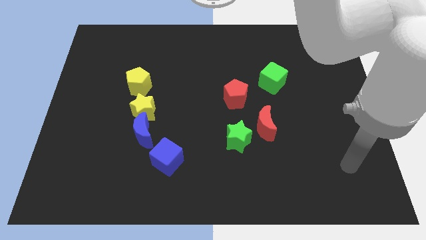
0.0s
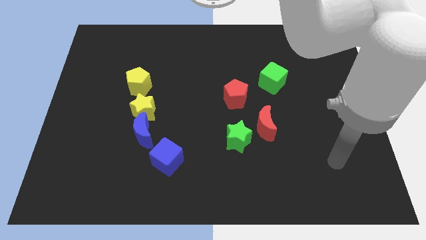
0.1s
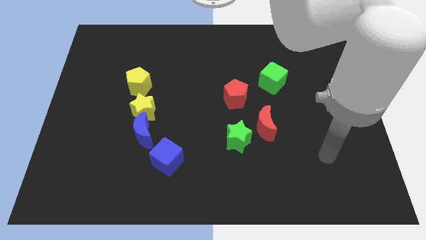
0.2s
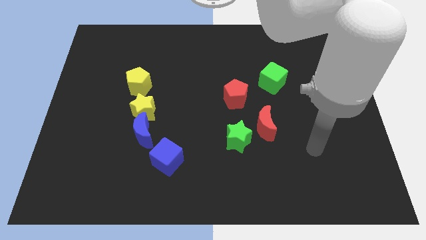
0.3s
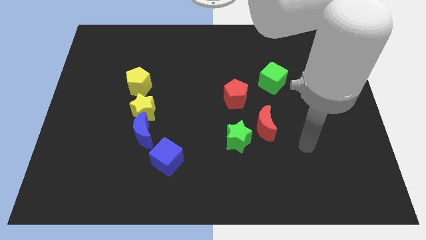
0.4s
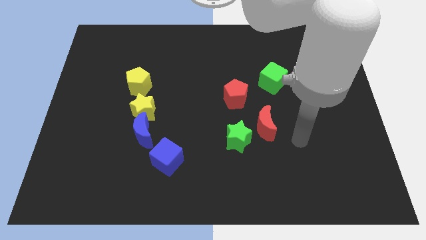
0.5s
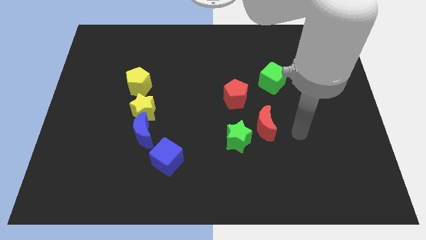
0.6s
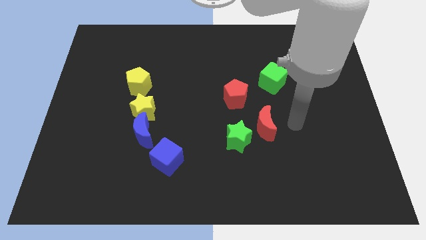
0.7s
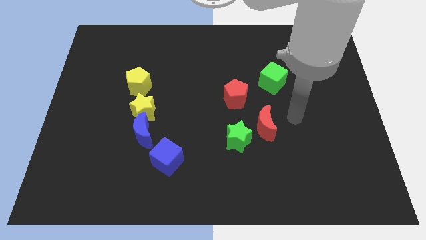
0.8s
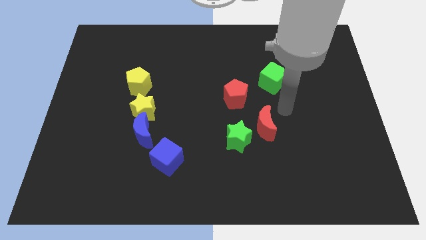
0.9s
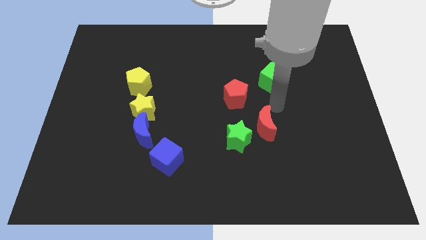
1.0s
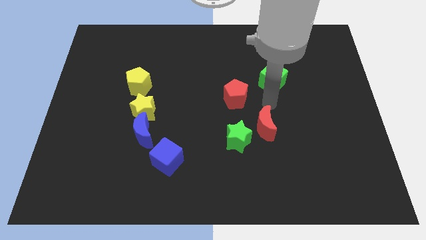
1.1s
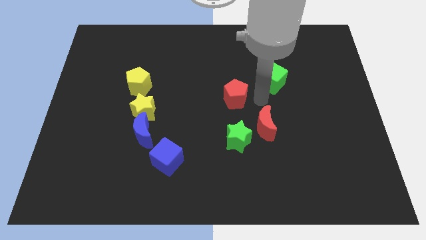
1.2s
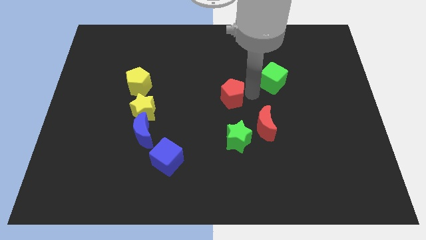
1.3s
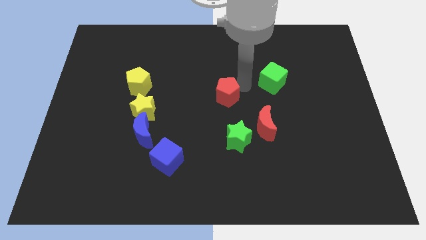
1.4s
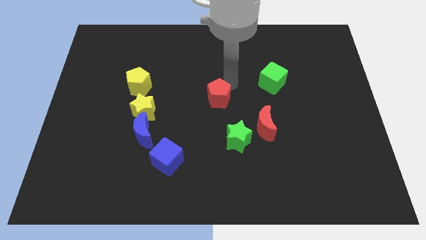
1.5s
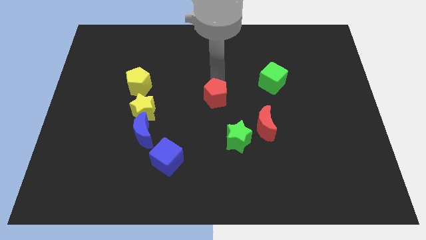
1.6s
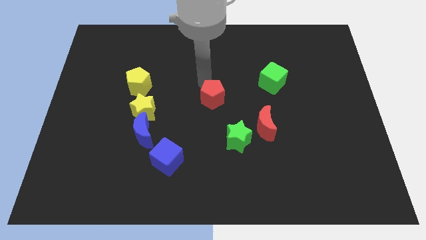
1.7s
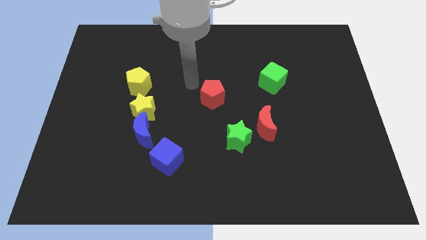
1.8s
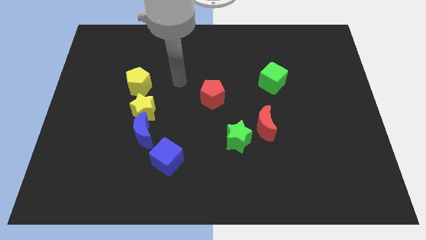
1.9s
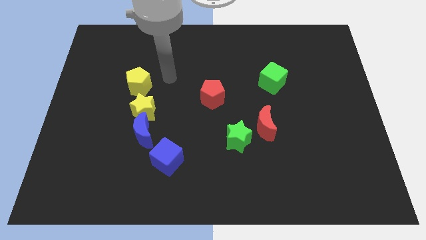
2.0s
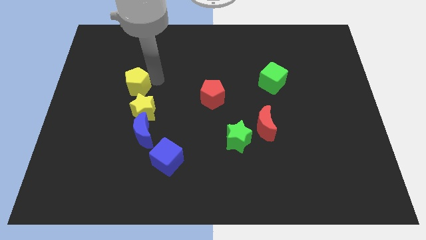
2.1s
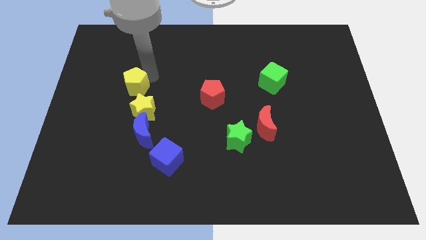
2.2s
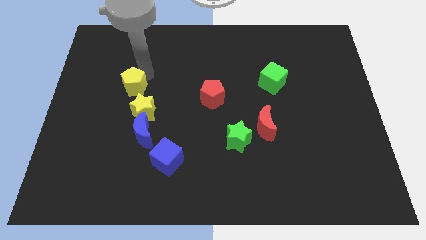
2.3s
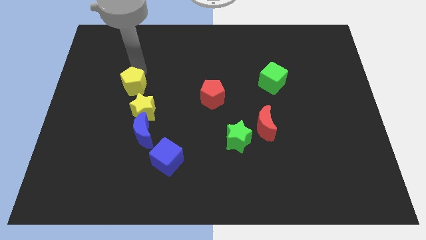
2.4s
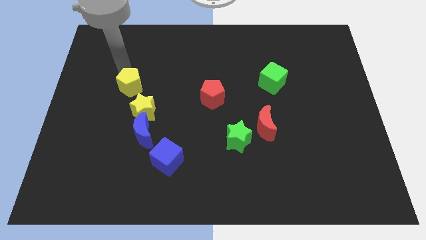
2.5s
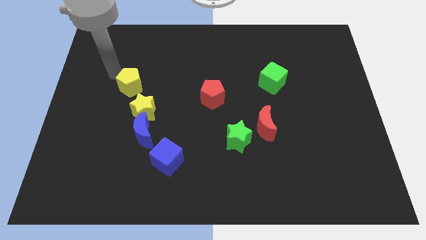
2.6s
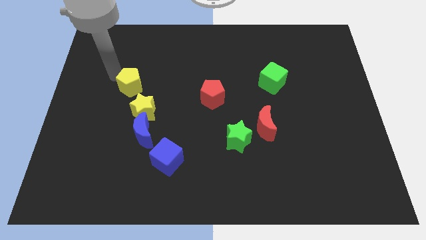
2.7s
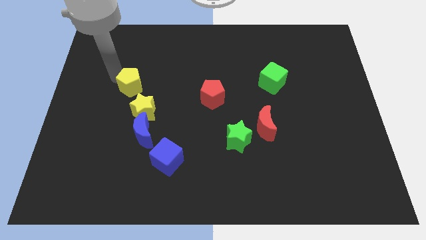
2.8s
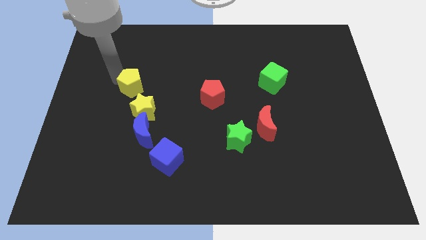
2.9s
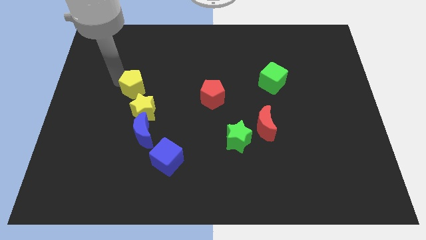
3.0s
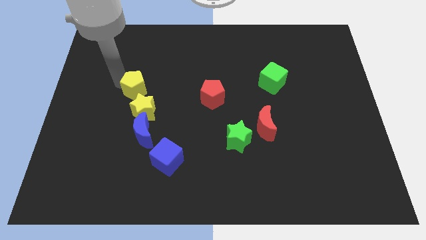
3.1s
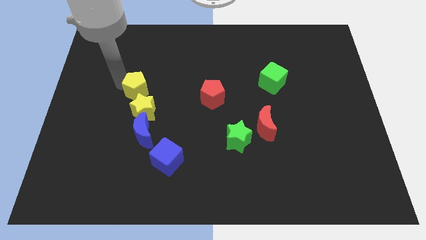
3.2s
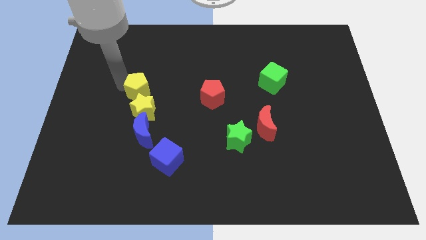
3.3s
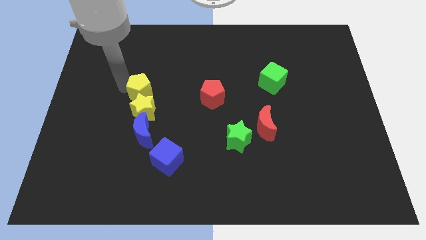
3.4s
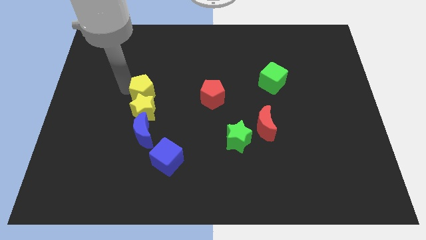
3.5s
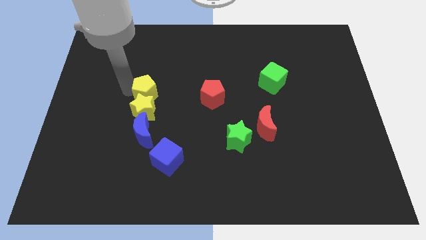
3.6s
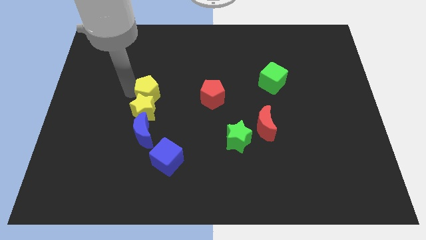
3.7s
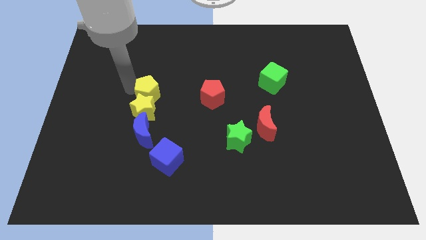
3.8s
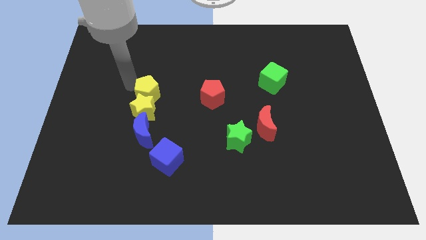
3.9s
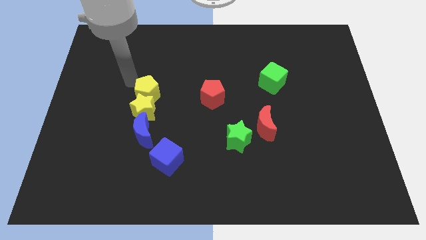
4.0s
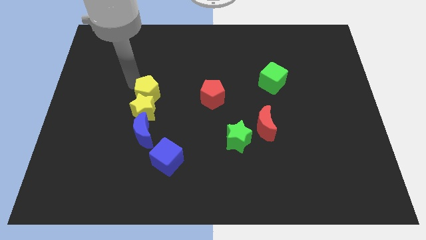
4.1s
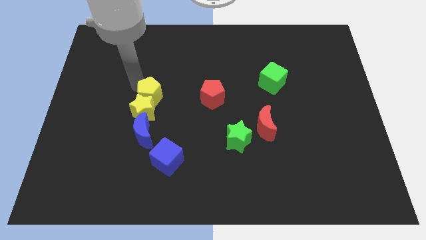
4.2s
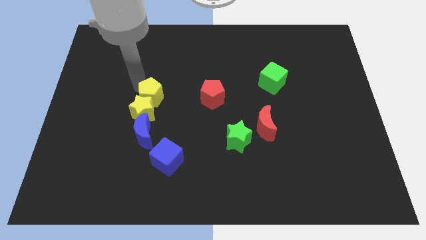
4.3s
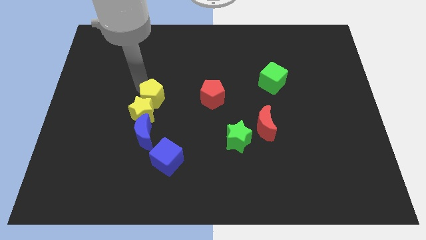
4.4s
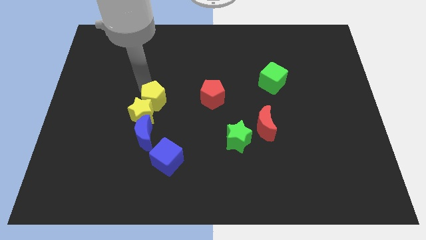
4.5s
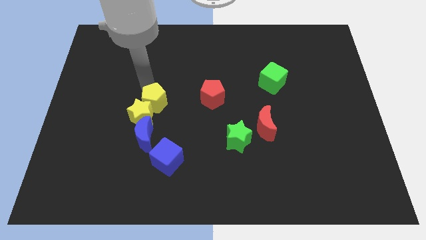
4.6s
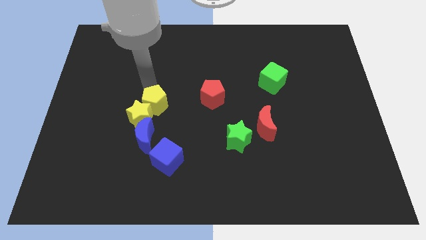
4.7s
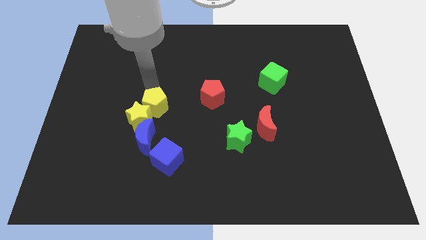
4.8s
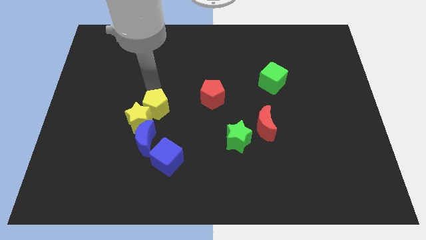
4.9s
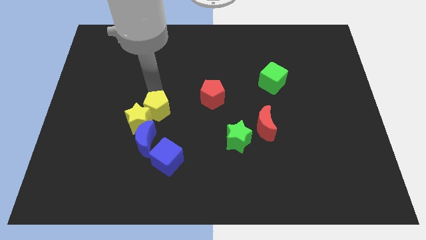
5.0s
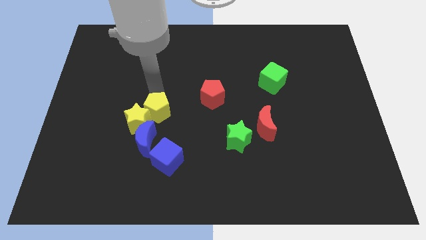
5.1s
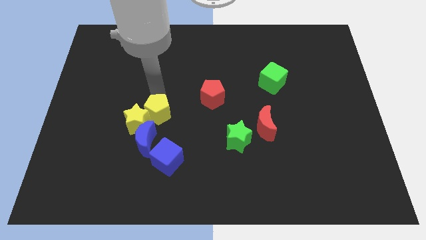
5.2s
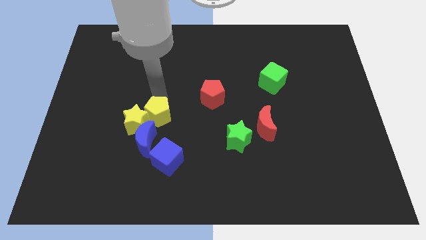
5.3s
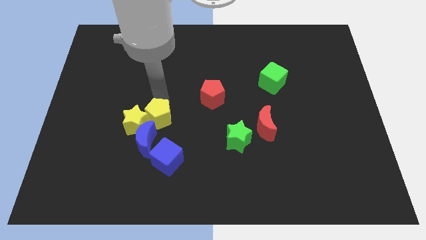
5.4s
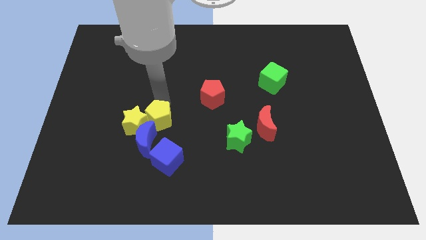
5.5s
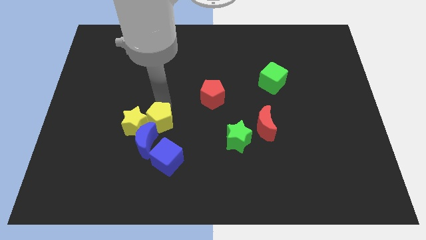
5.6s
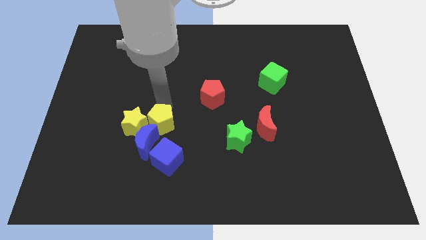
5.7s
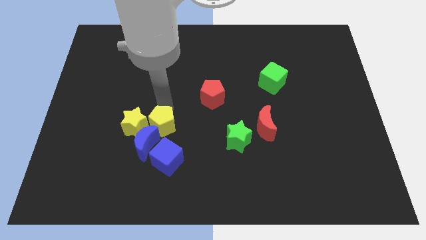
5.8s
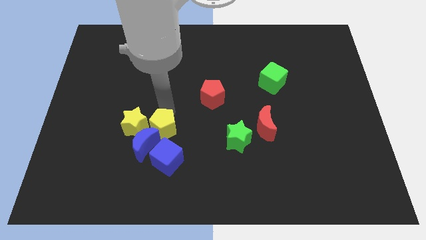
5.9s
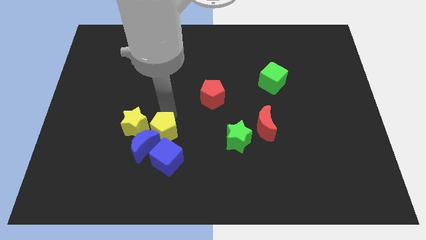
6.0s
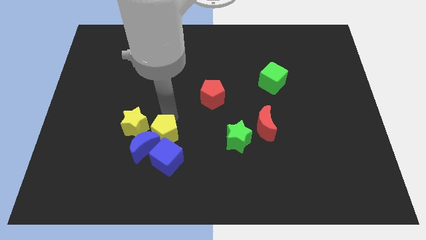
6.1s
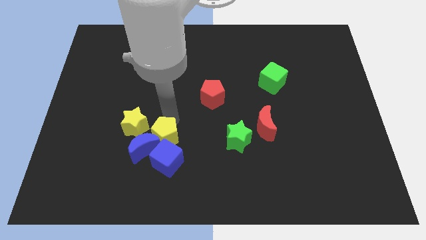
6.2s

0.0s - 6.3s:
slide the yellow pentagon to the blue cube
